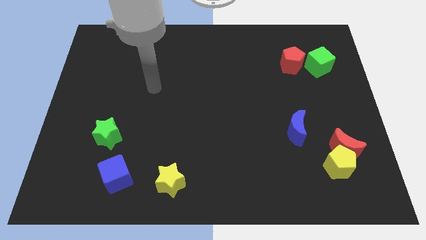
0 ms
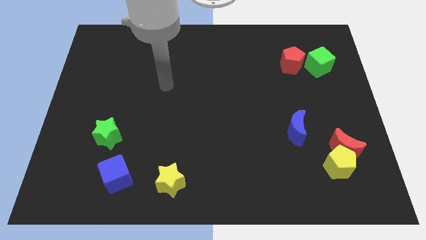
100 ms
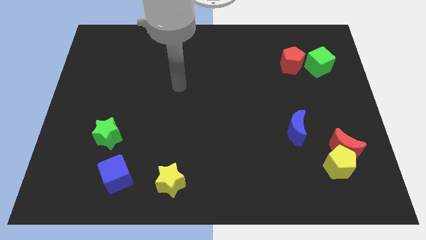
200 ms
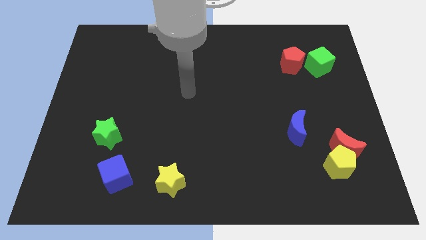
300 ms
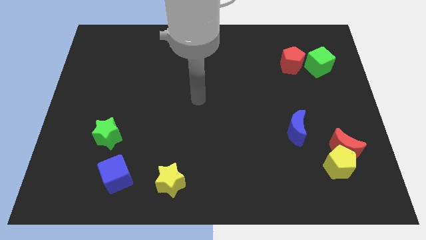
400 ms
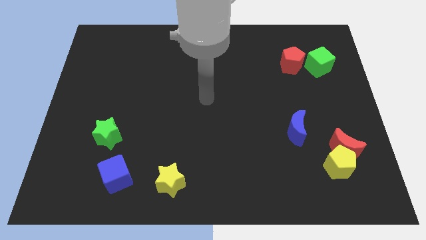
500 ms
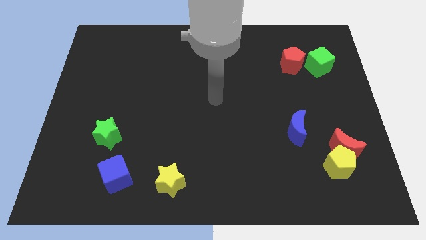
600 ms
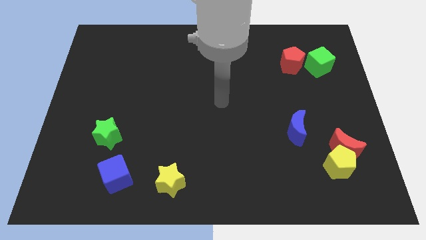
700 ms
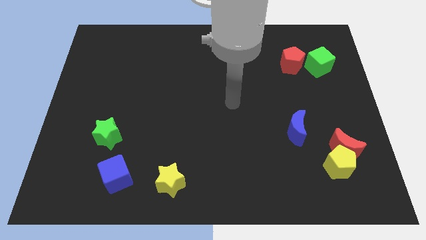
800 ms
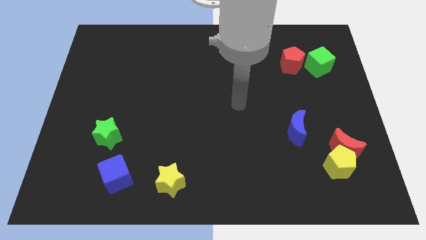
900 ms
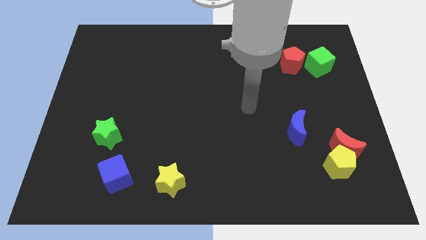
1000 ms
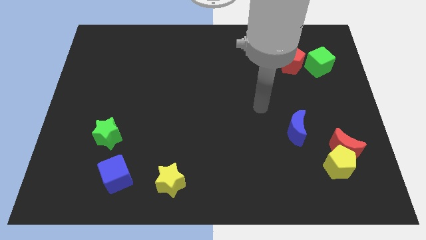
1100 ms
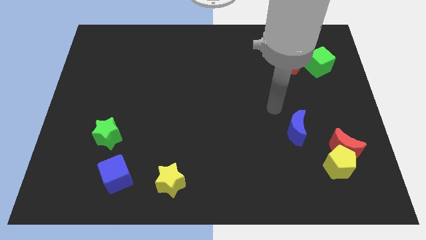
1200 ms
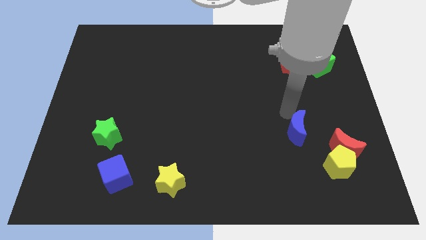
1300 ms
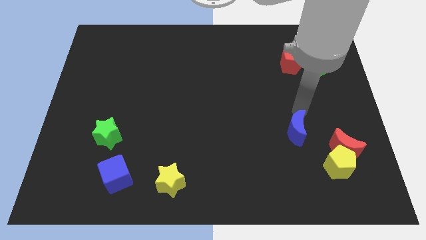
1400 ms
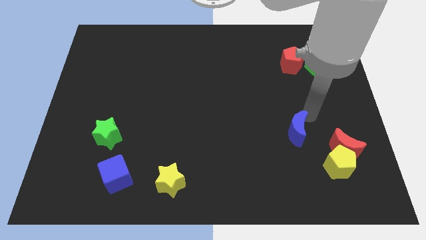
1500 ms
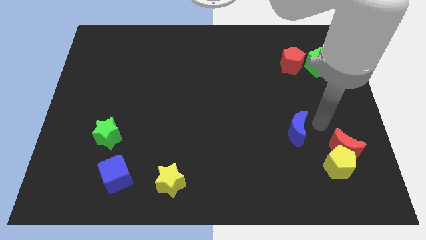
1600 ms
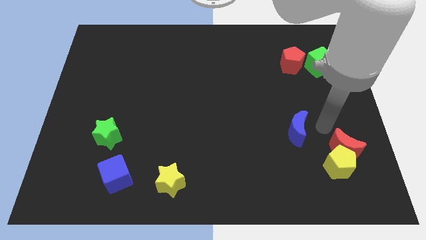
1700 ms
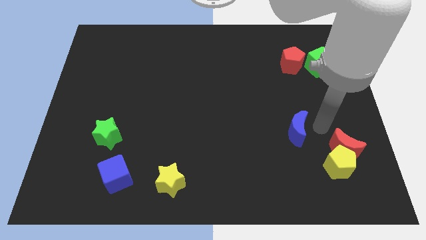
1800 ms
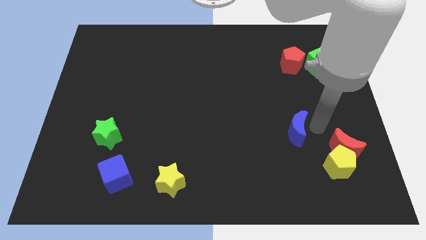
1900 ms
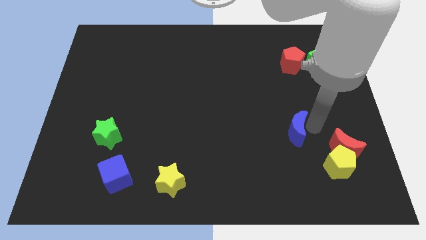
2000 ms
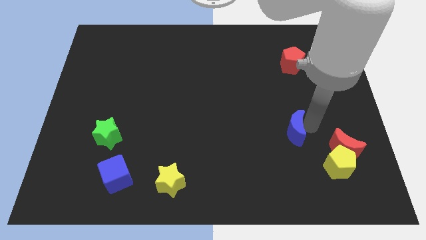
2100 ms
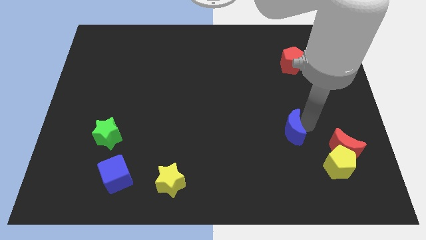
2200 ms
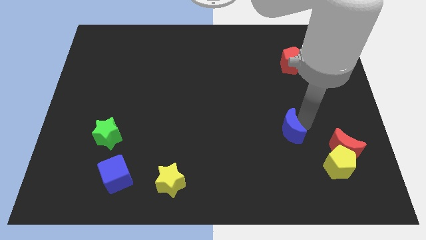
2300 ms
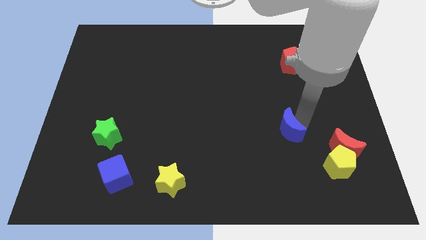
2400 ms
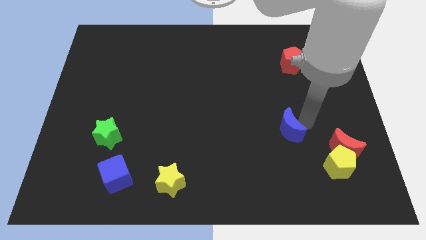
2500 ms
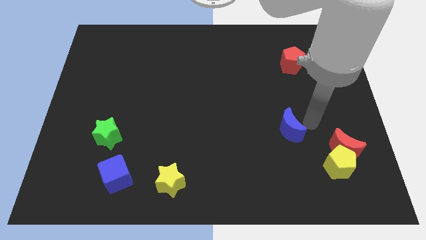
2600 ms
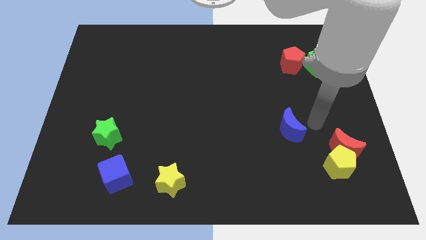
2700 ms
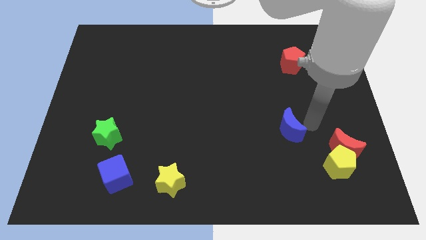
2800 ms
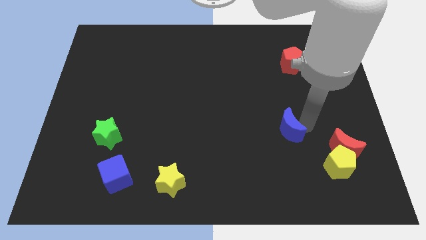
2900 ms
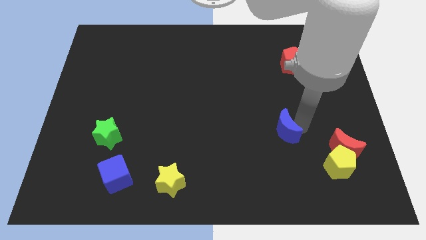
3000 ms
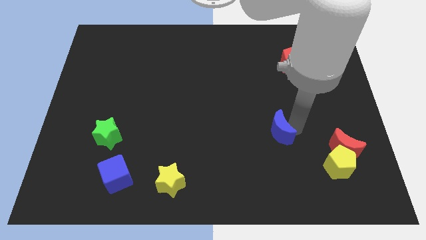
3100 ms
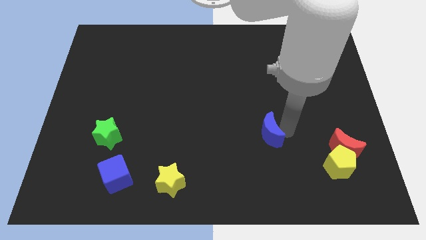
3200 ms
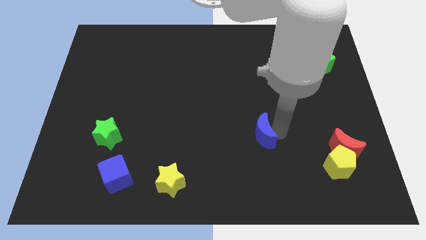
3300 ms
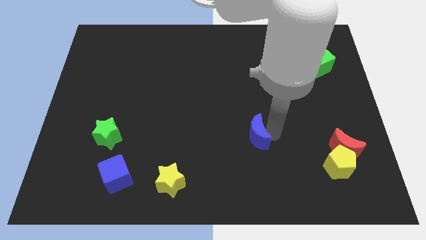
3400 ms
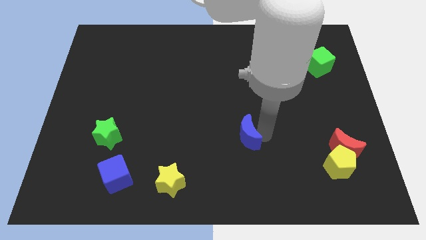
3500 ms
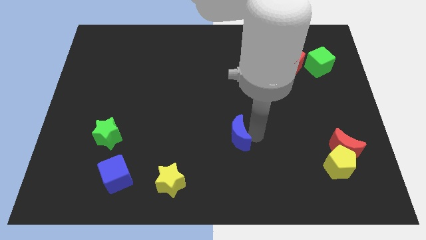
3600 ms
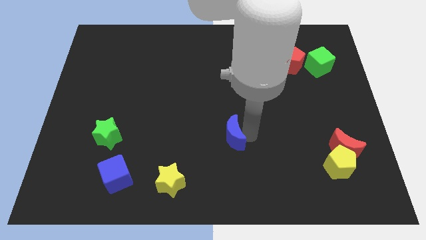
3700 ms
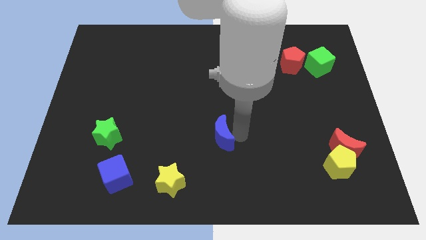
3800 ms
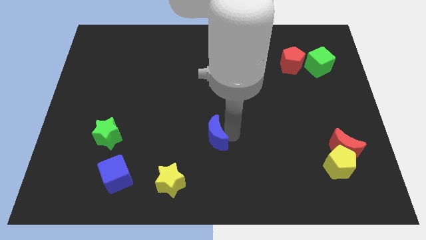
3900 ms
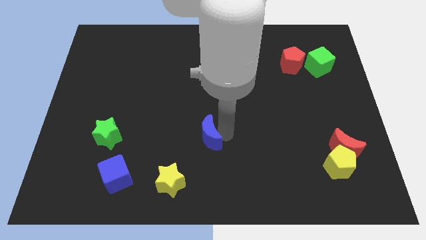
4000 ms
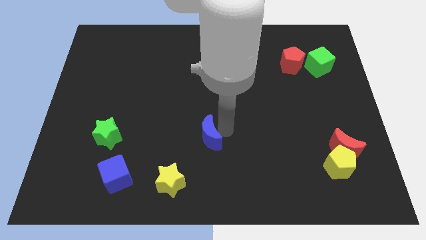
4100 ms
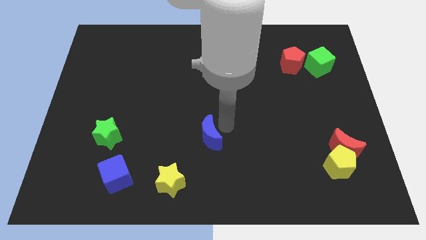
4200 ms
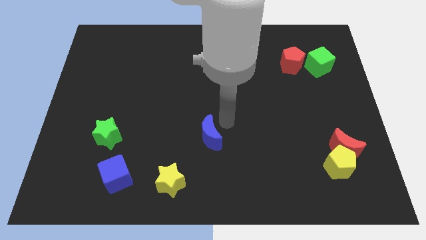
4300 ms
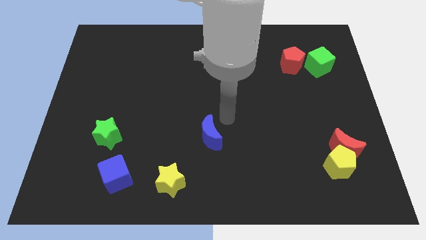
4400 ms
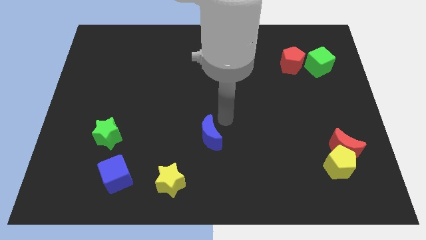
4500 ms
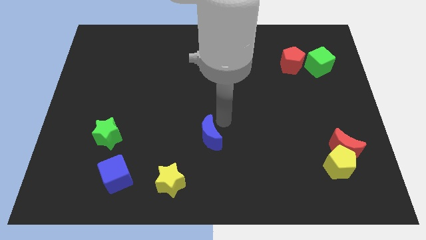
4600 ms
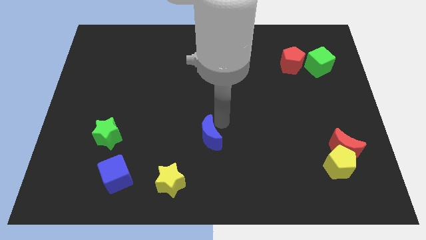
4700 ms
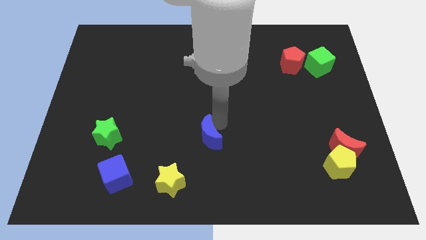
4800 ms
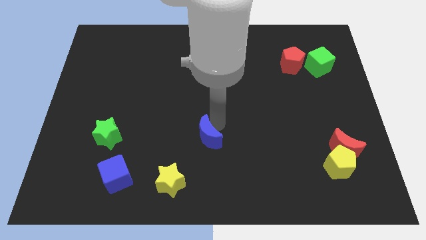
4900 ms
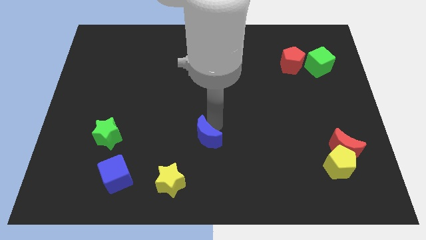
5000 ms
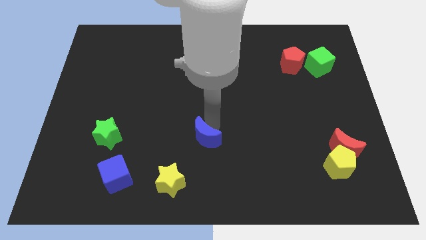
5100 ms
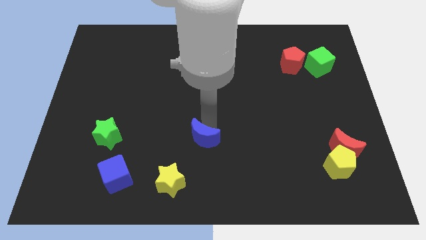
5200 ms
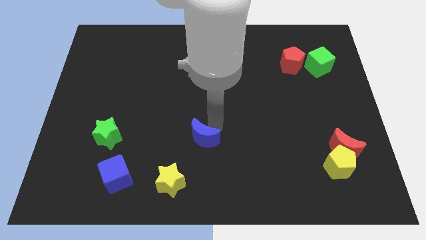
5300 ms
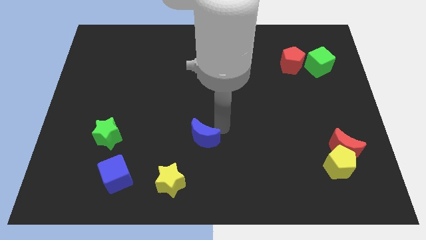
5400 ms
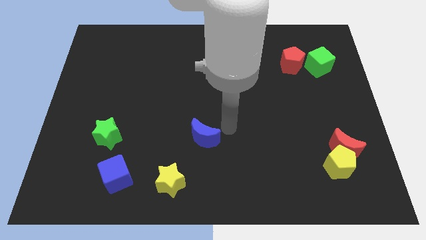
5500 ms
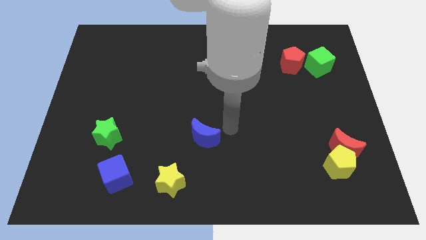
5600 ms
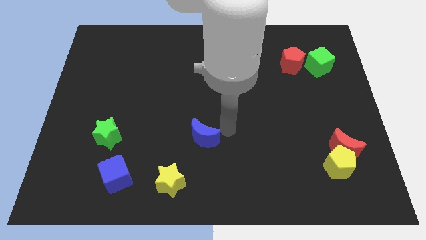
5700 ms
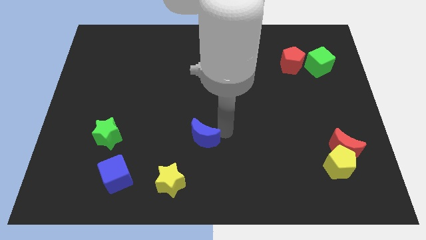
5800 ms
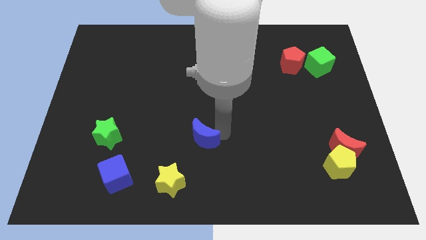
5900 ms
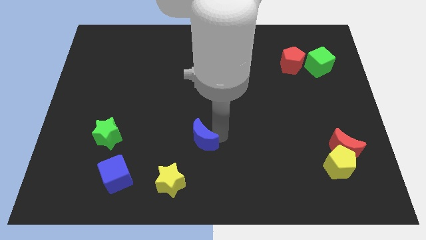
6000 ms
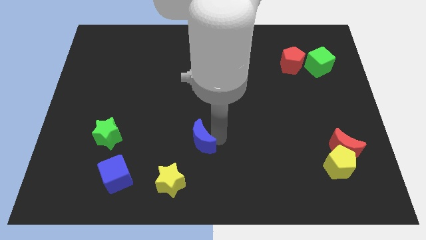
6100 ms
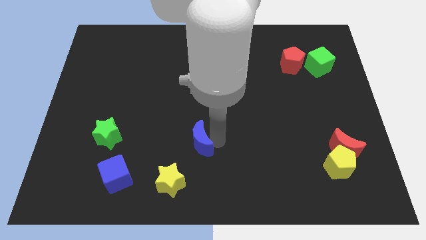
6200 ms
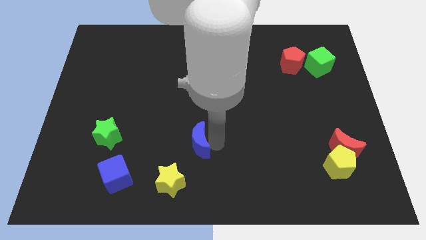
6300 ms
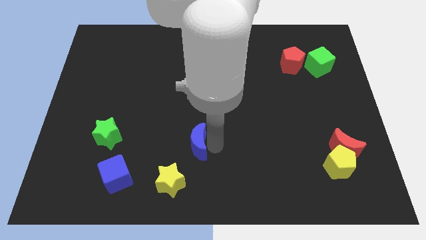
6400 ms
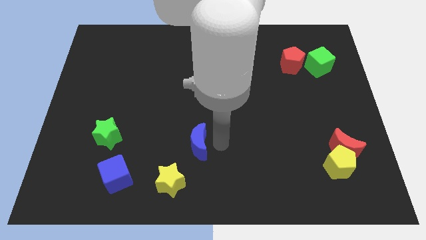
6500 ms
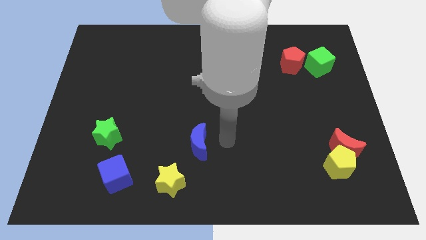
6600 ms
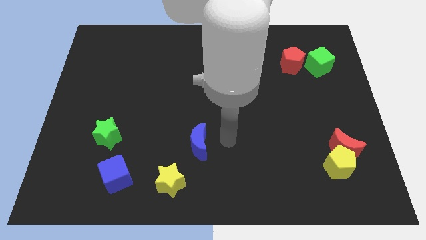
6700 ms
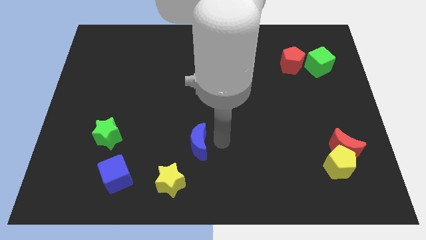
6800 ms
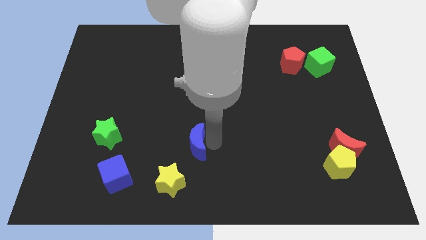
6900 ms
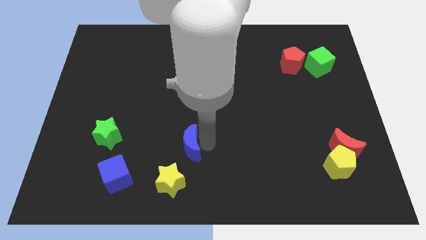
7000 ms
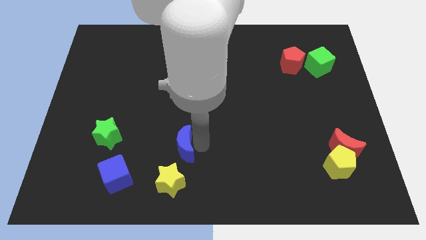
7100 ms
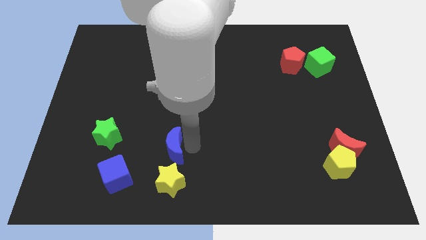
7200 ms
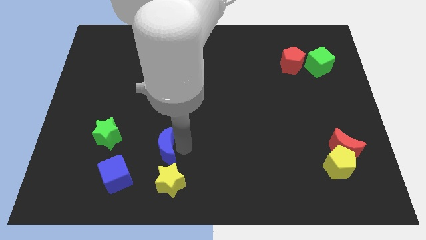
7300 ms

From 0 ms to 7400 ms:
put the blue moon to the top right side of the blue cube
